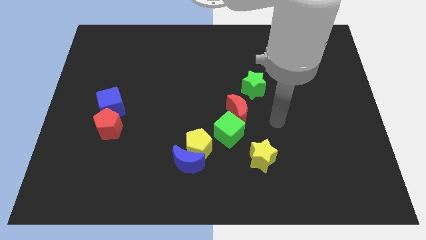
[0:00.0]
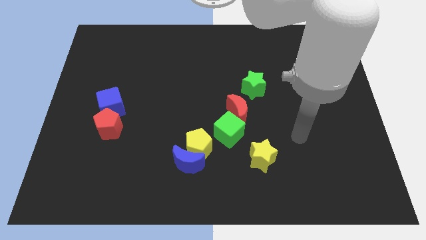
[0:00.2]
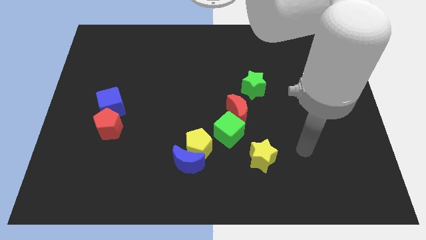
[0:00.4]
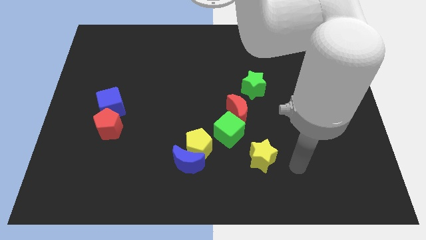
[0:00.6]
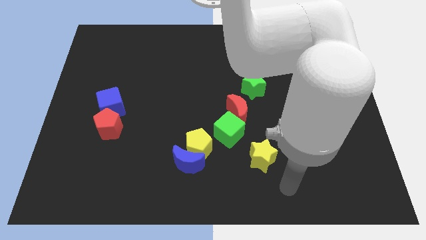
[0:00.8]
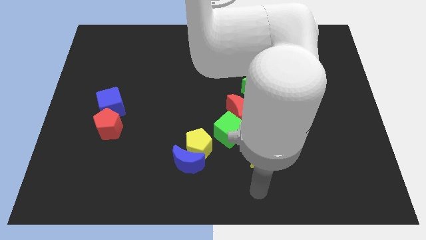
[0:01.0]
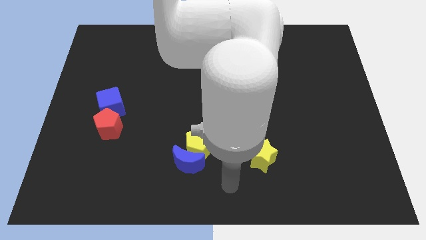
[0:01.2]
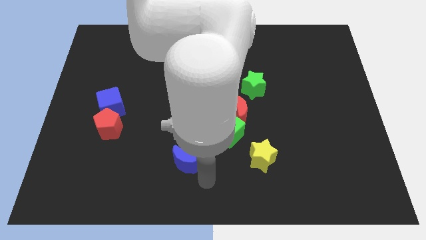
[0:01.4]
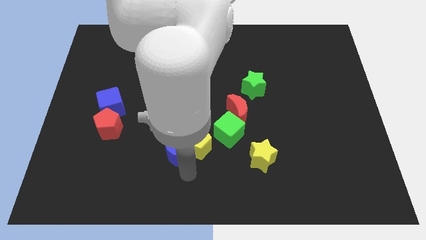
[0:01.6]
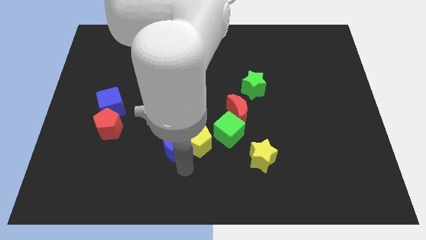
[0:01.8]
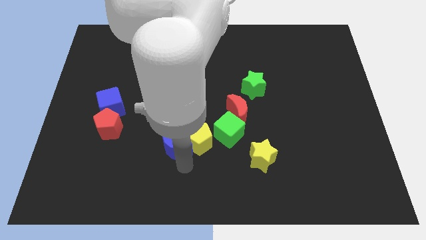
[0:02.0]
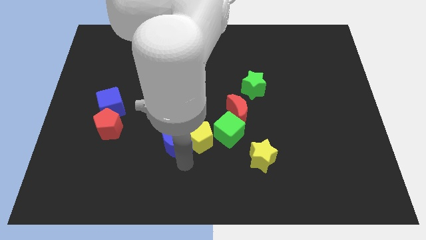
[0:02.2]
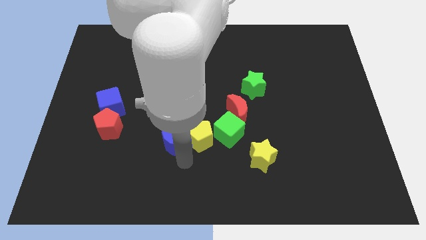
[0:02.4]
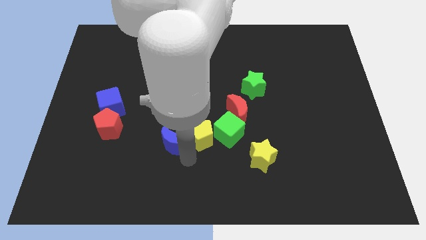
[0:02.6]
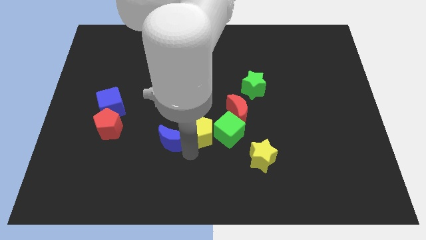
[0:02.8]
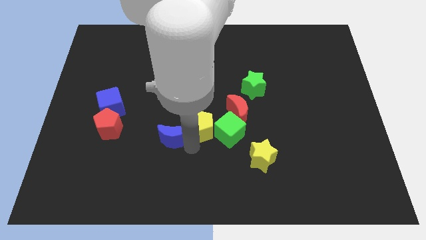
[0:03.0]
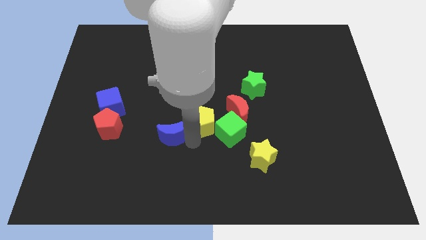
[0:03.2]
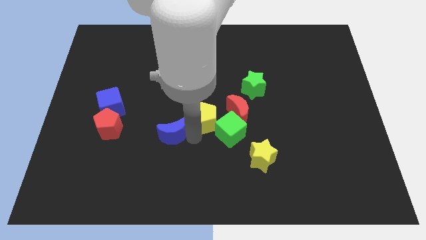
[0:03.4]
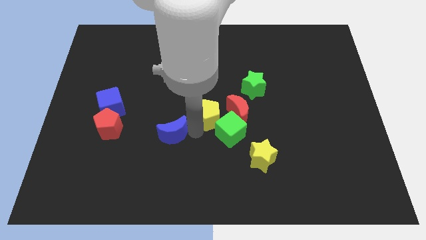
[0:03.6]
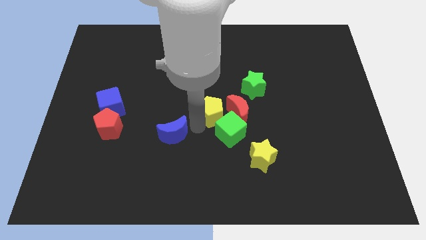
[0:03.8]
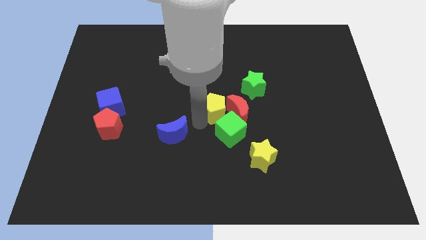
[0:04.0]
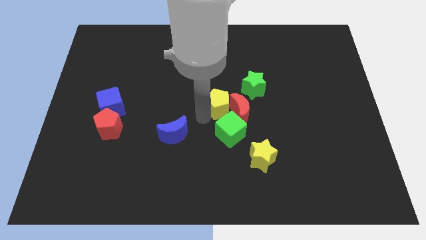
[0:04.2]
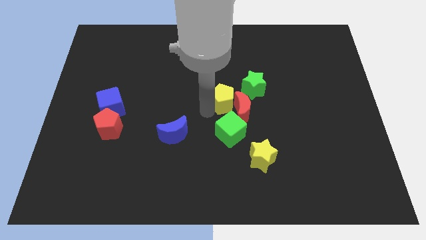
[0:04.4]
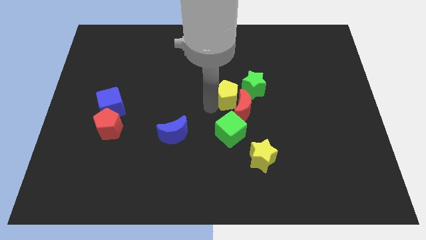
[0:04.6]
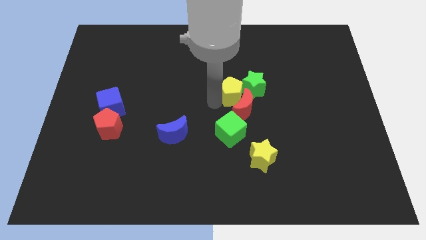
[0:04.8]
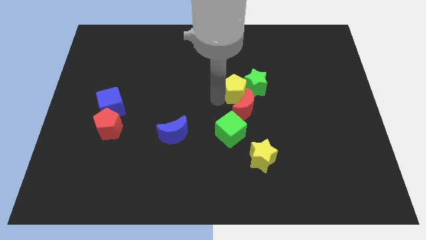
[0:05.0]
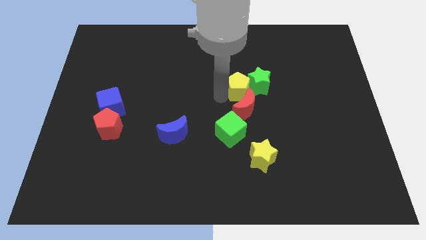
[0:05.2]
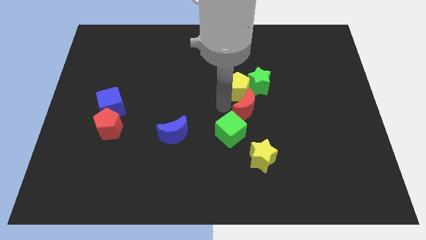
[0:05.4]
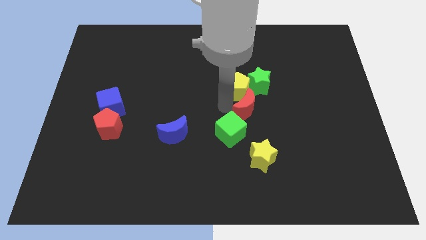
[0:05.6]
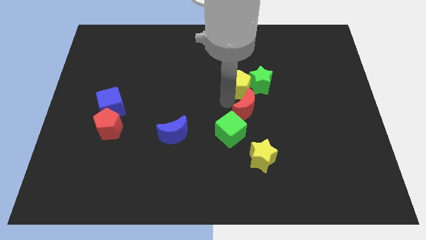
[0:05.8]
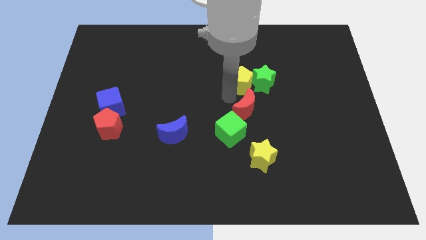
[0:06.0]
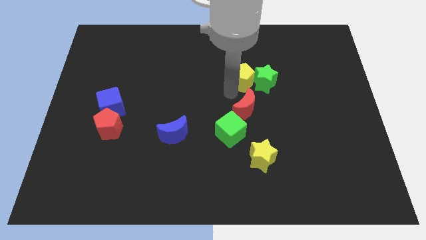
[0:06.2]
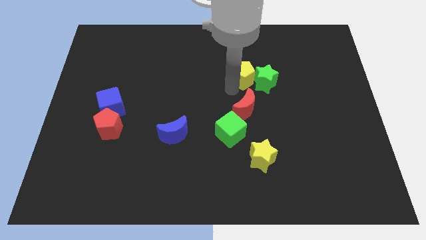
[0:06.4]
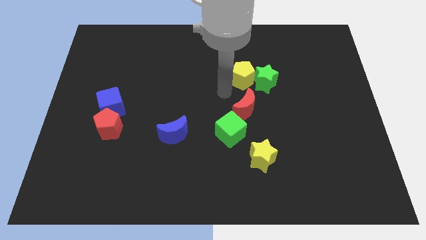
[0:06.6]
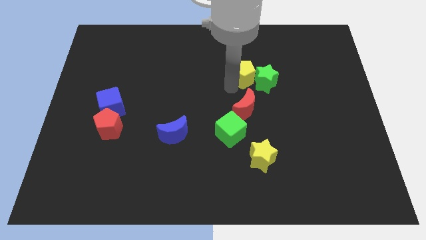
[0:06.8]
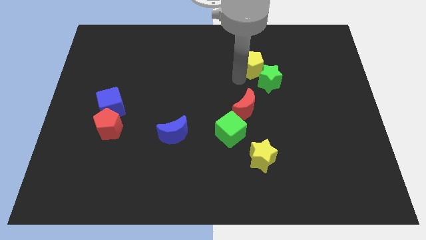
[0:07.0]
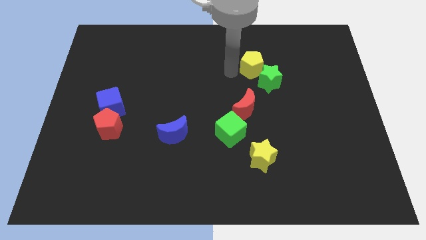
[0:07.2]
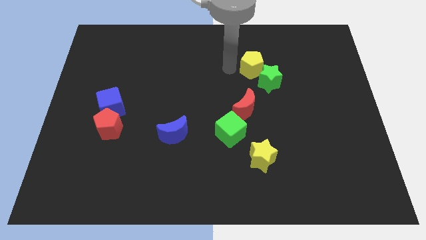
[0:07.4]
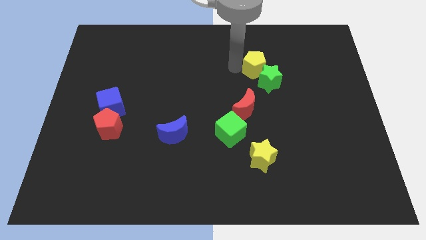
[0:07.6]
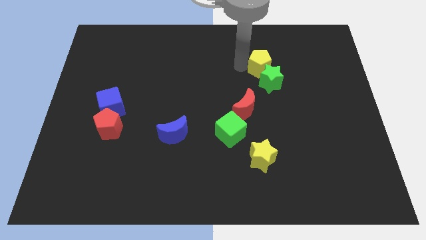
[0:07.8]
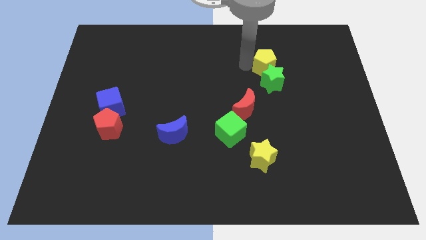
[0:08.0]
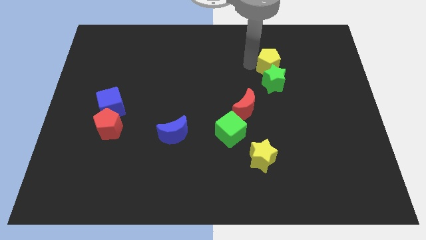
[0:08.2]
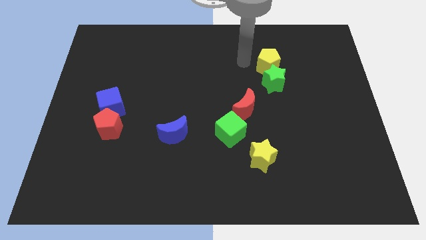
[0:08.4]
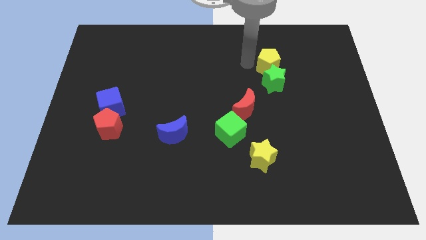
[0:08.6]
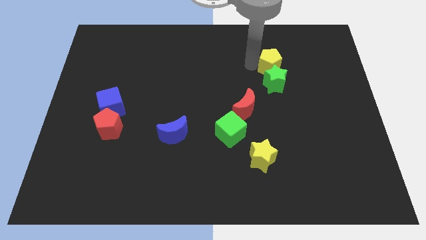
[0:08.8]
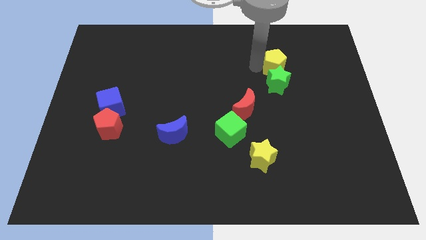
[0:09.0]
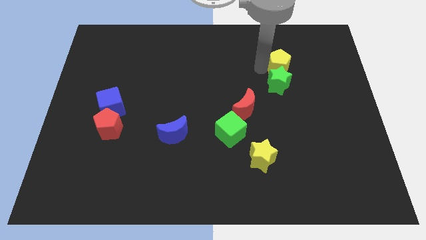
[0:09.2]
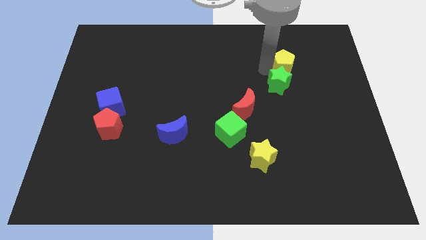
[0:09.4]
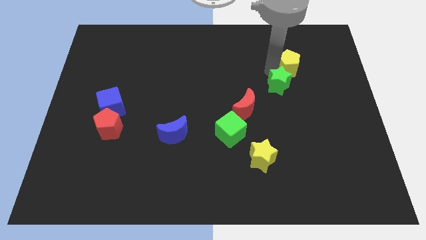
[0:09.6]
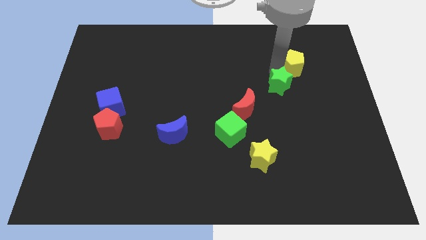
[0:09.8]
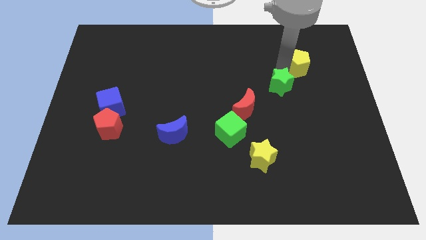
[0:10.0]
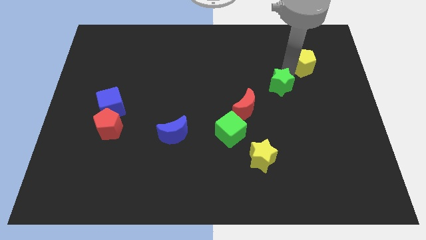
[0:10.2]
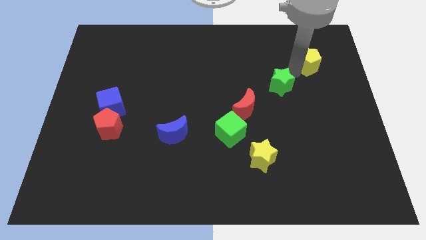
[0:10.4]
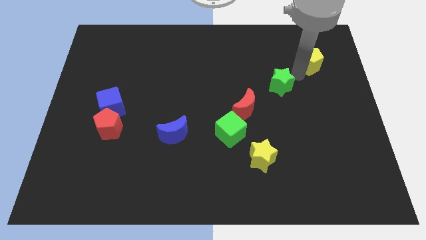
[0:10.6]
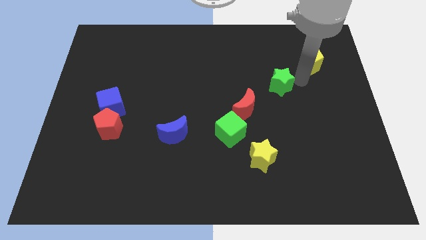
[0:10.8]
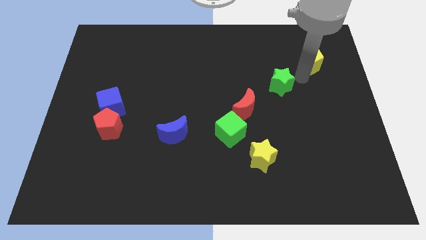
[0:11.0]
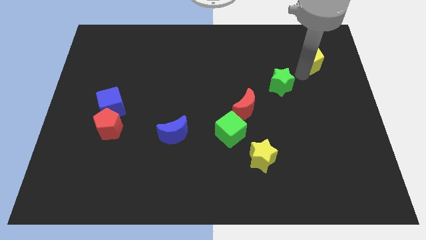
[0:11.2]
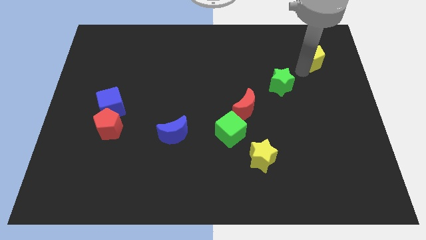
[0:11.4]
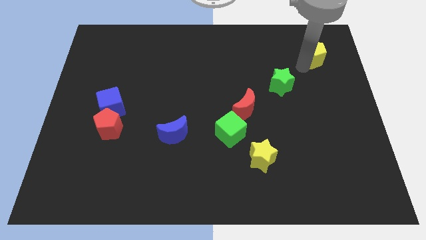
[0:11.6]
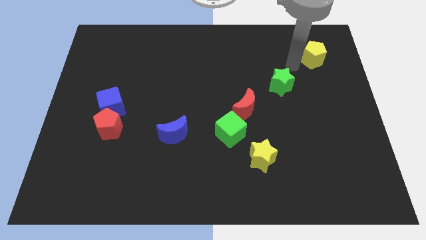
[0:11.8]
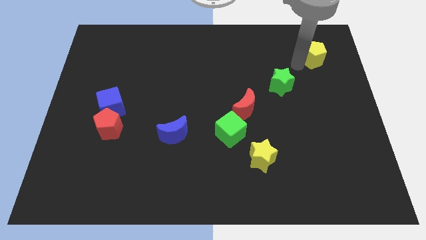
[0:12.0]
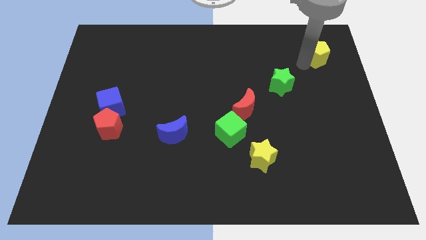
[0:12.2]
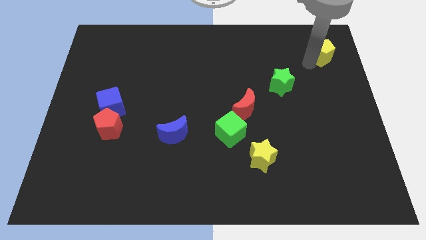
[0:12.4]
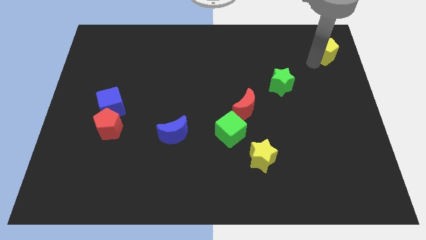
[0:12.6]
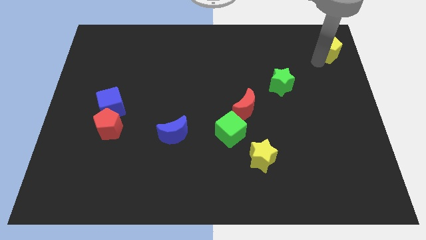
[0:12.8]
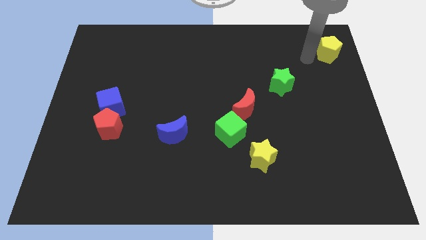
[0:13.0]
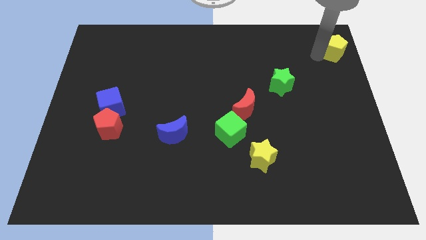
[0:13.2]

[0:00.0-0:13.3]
slide the yellow pentagon to the top right corner
